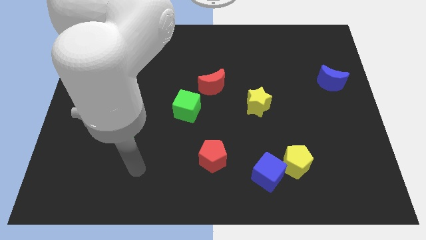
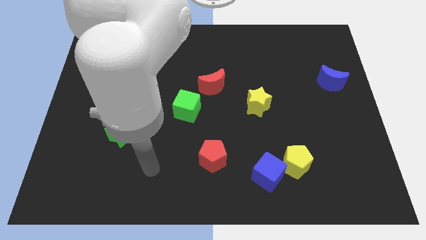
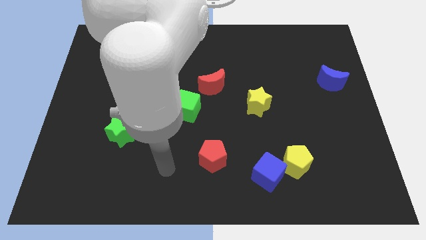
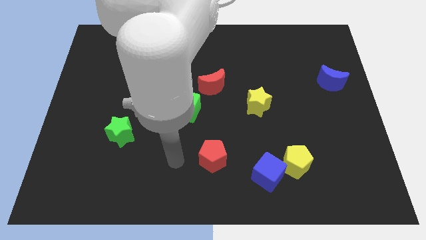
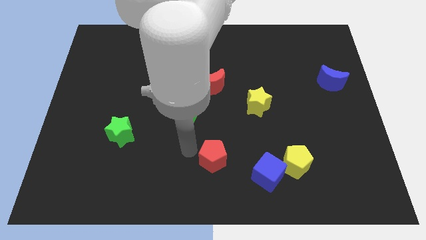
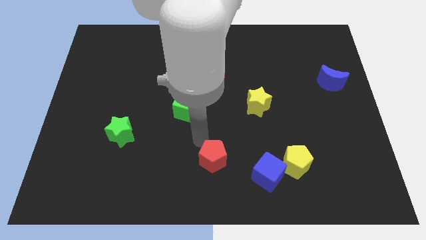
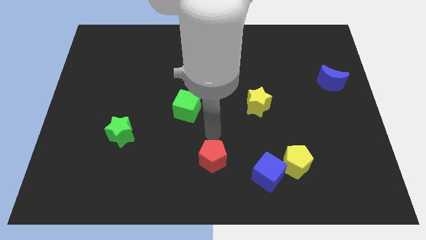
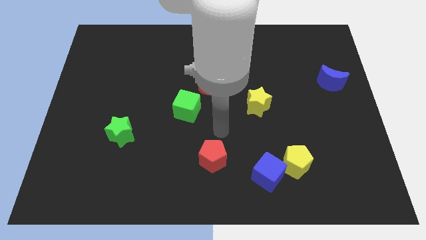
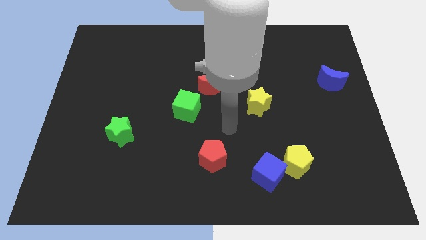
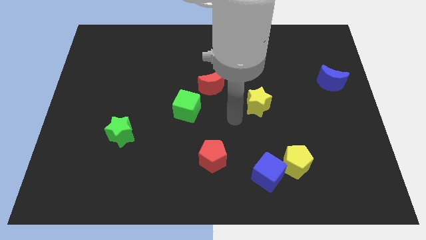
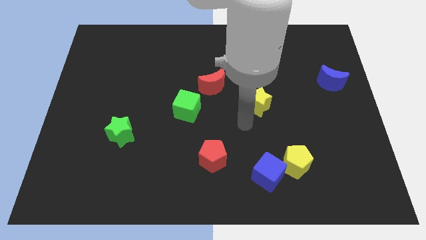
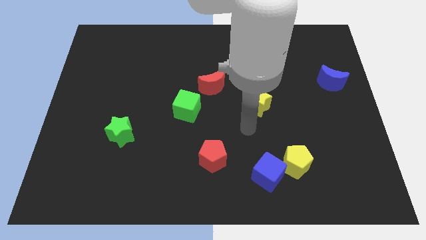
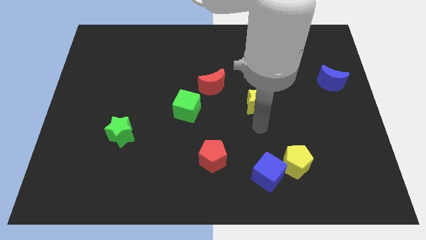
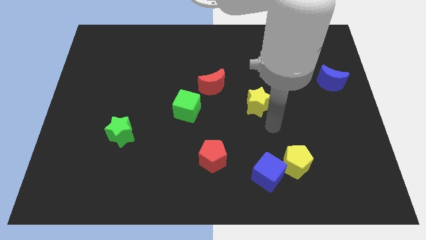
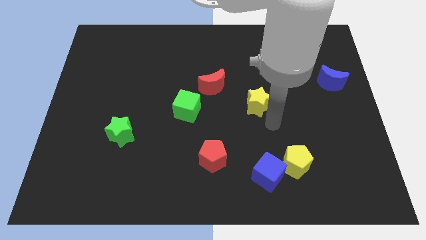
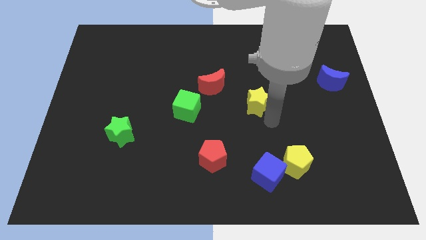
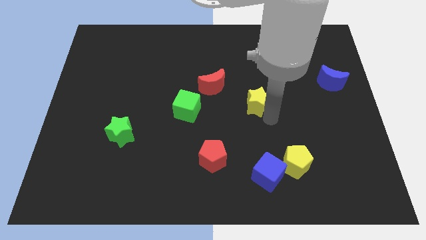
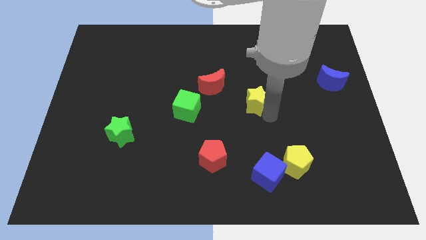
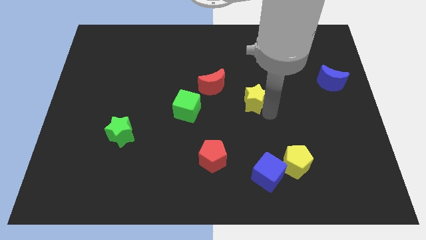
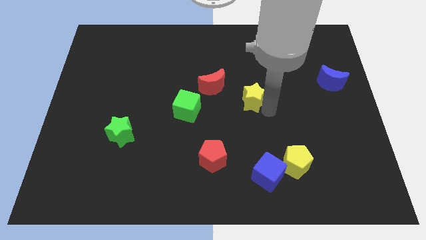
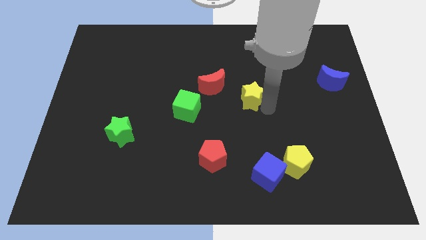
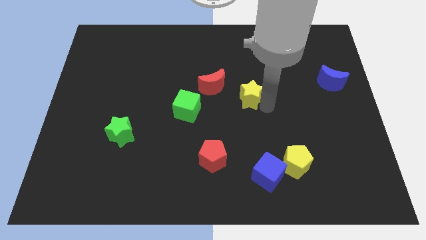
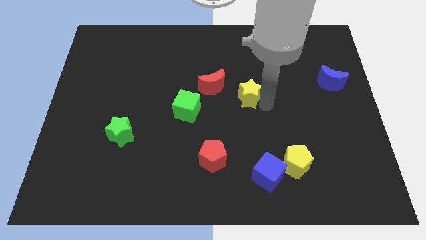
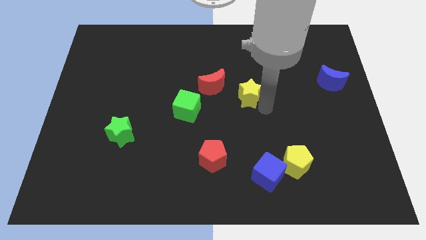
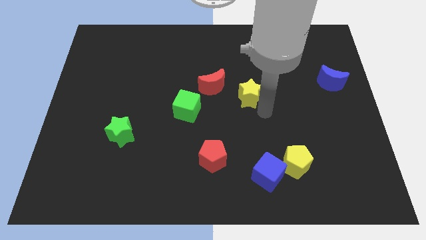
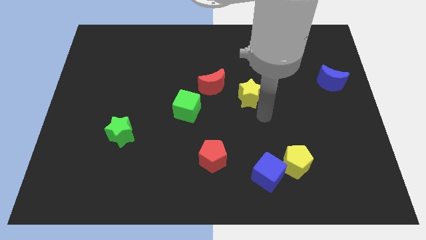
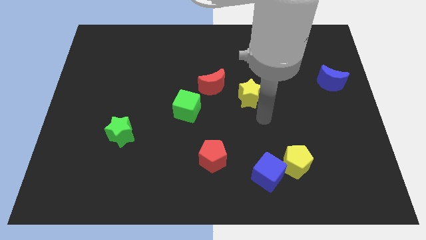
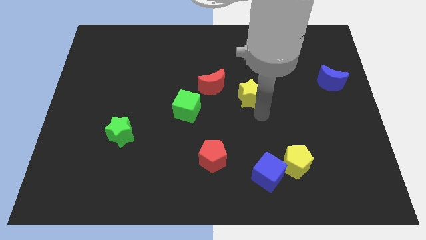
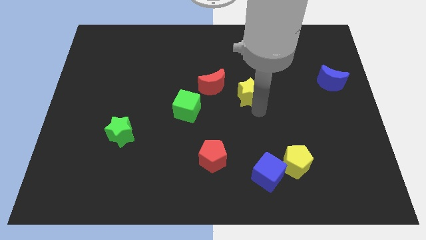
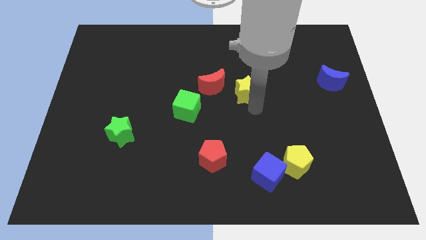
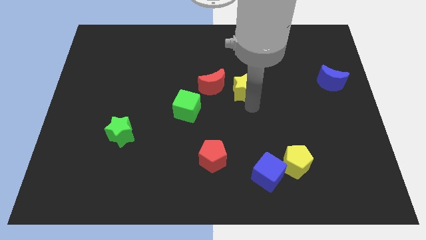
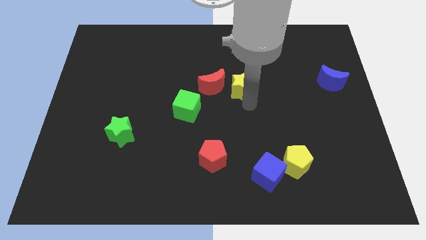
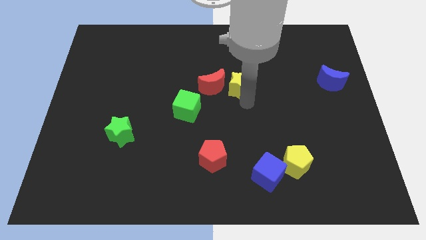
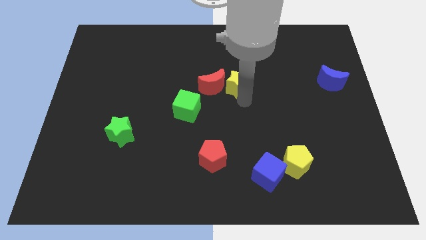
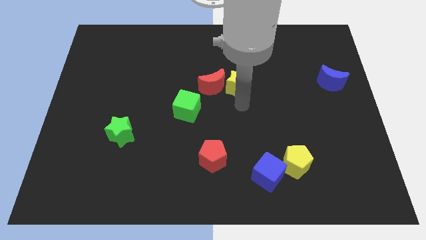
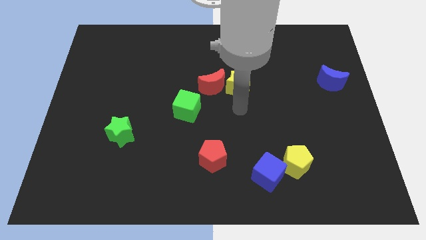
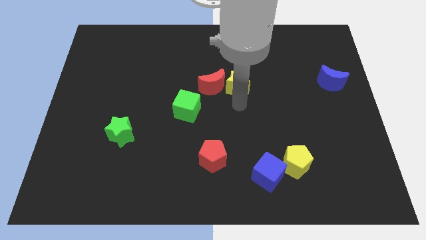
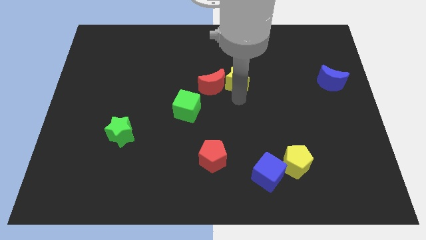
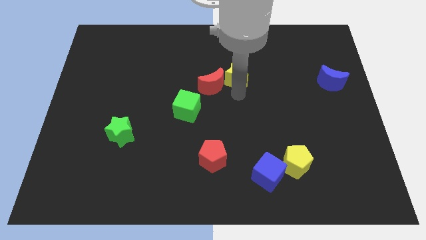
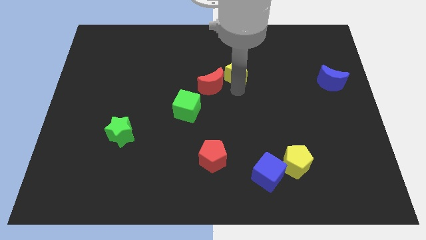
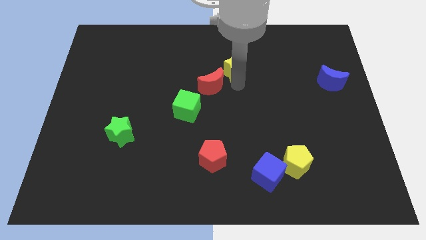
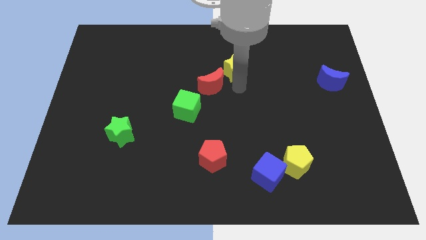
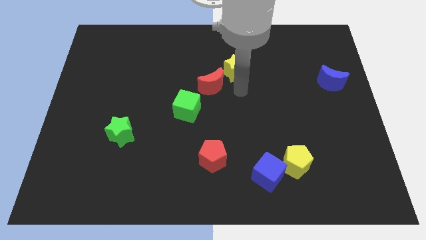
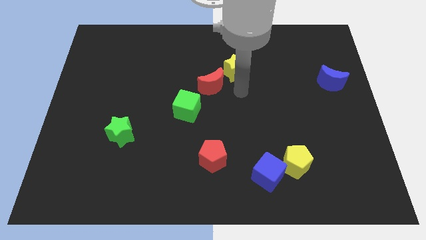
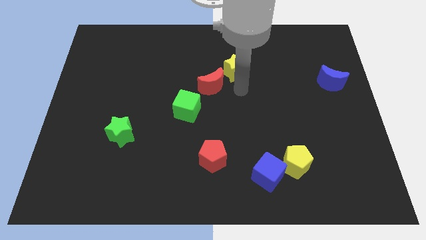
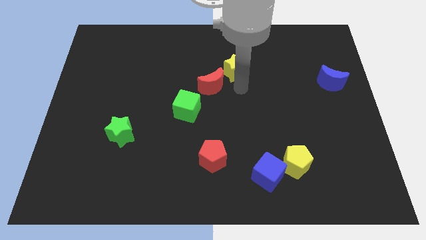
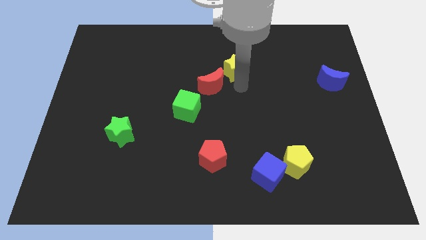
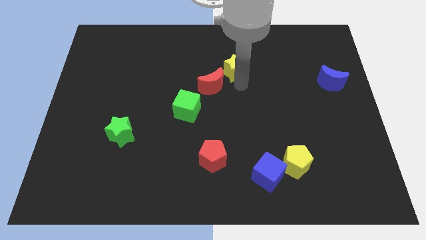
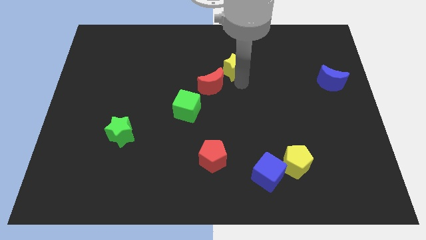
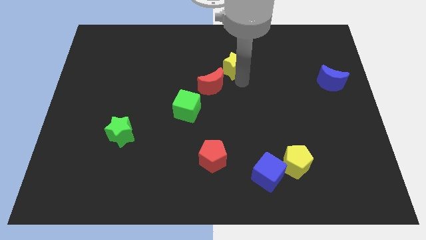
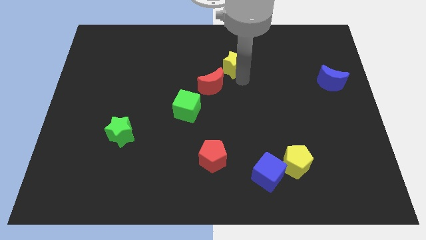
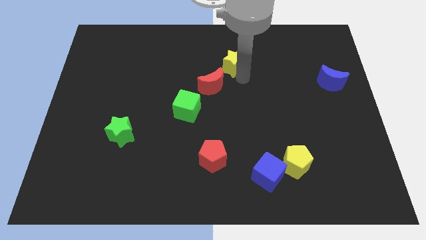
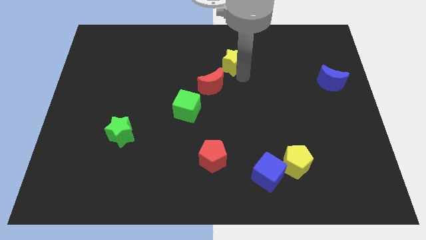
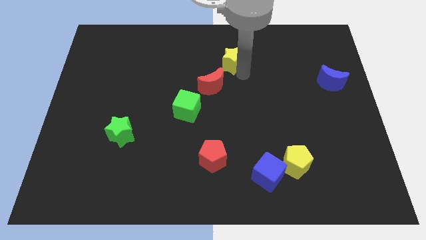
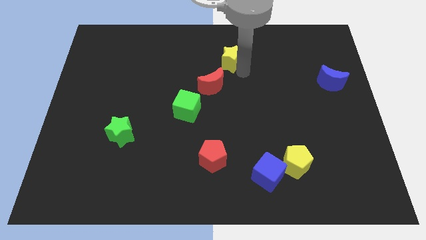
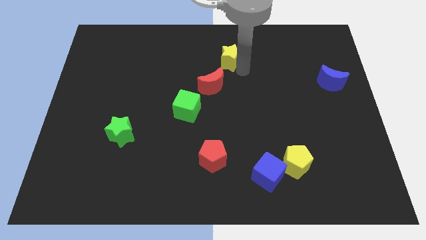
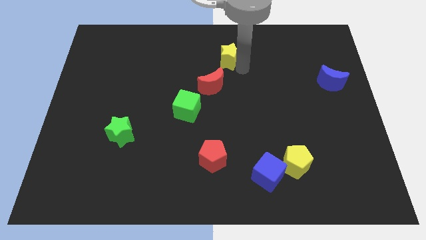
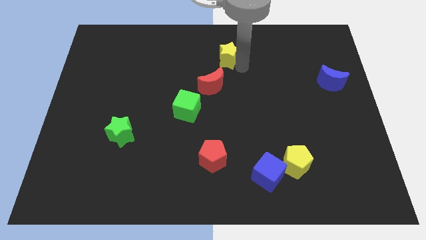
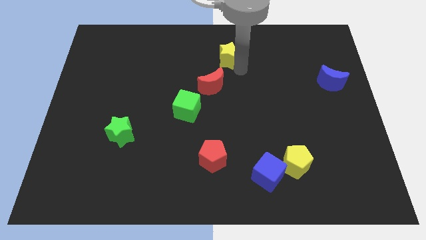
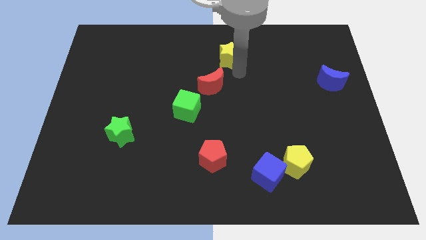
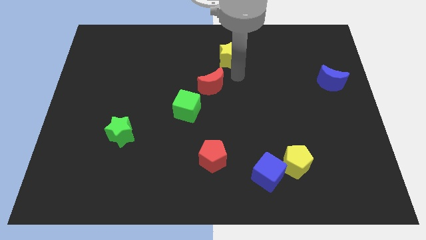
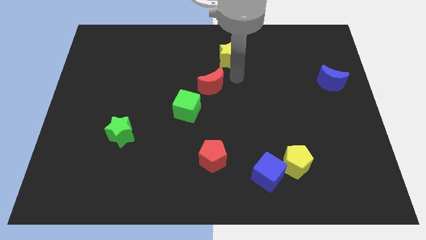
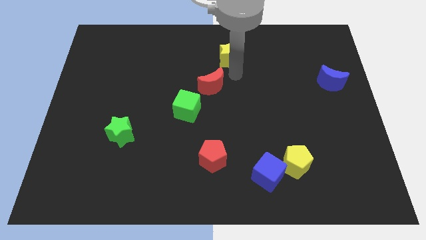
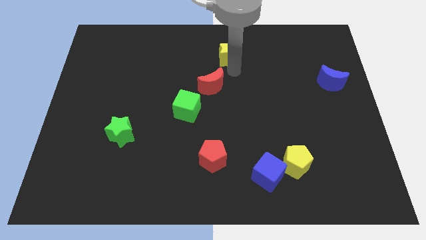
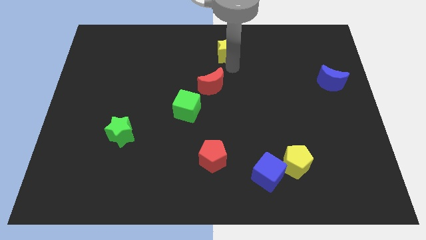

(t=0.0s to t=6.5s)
slide the yellow star to the towards your base
